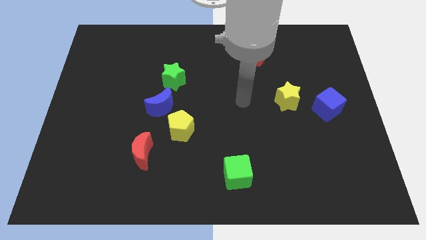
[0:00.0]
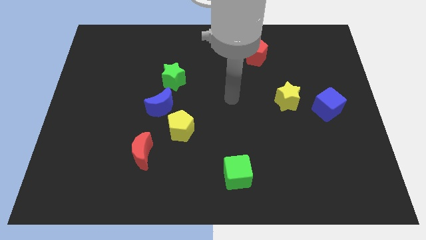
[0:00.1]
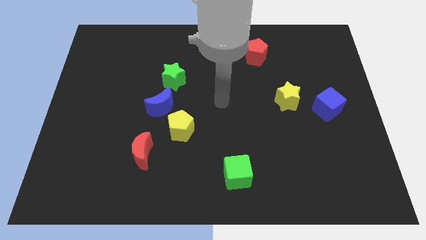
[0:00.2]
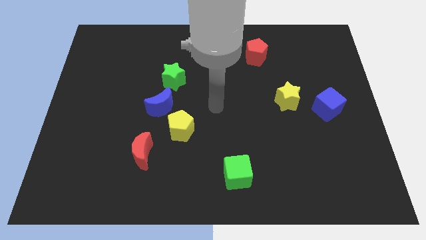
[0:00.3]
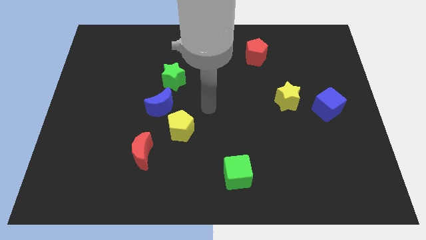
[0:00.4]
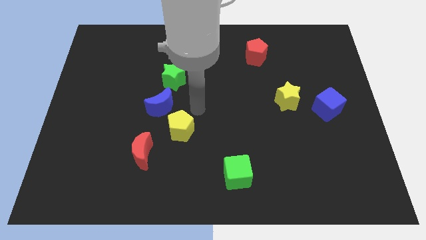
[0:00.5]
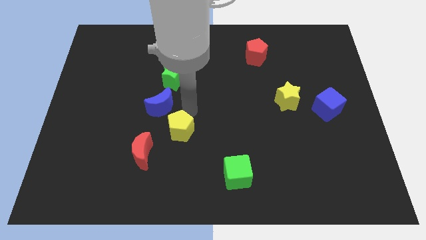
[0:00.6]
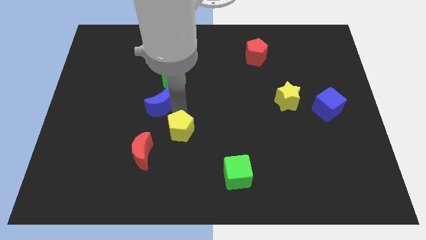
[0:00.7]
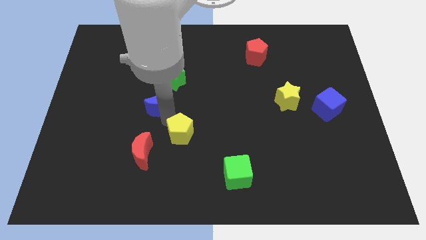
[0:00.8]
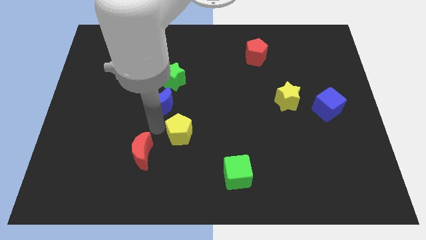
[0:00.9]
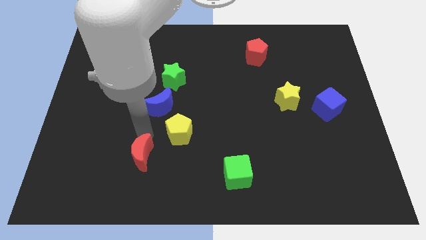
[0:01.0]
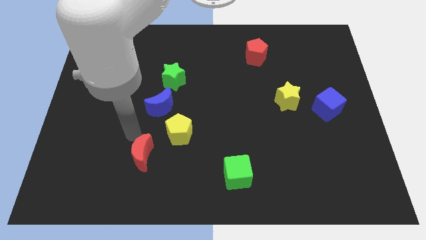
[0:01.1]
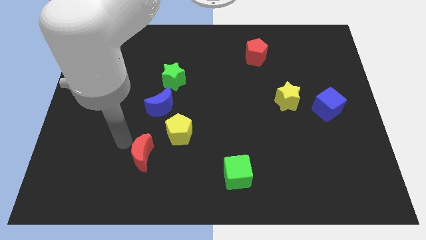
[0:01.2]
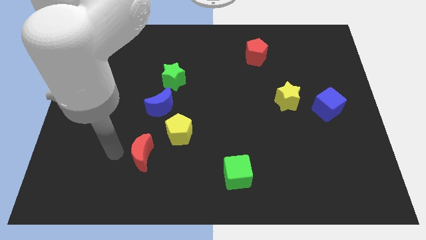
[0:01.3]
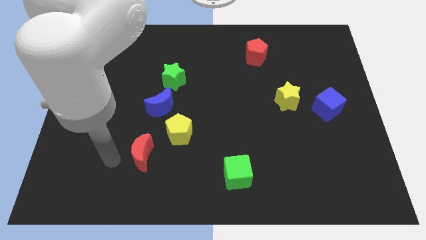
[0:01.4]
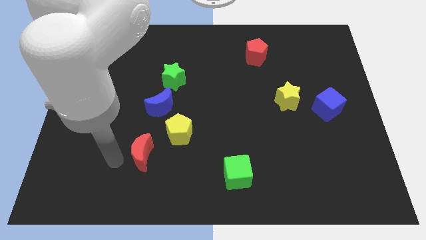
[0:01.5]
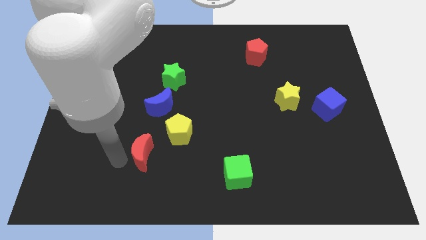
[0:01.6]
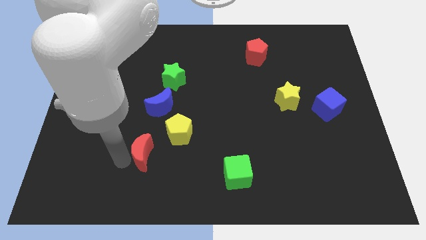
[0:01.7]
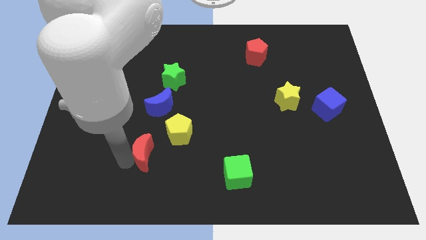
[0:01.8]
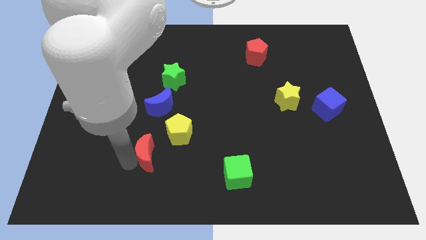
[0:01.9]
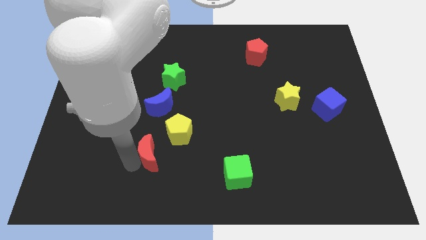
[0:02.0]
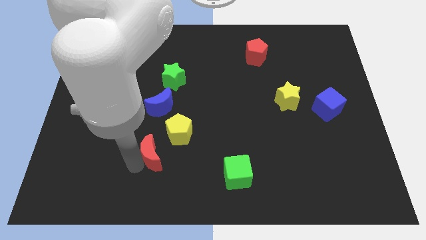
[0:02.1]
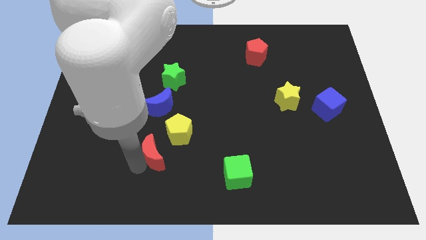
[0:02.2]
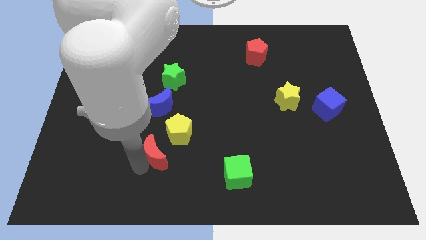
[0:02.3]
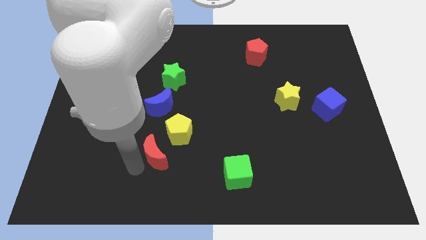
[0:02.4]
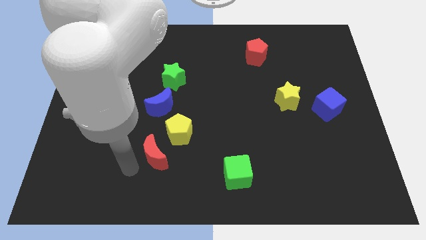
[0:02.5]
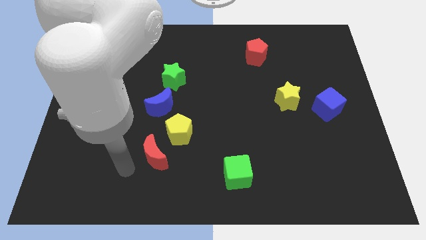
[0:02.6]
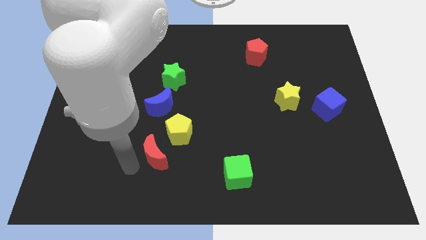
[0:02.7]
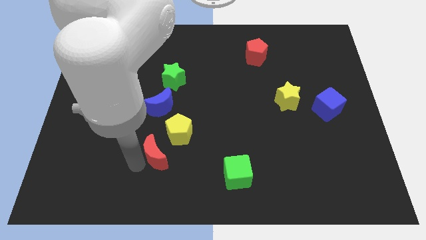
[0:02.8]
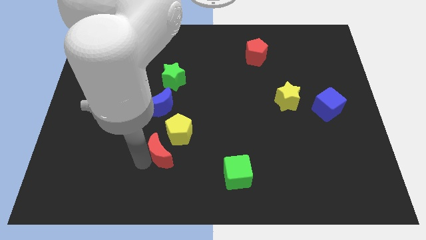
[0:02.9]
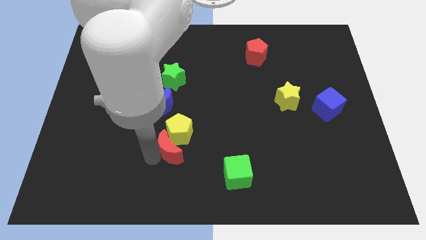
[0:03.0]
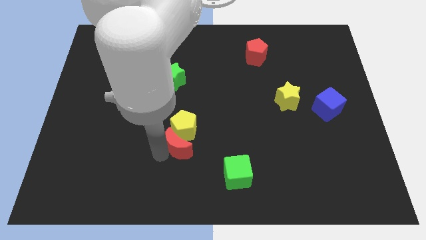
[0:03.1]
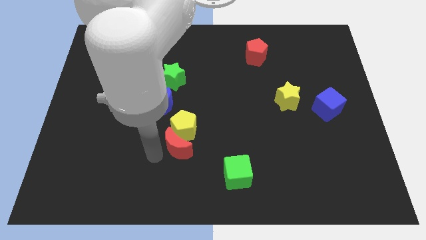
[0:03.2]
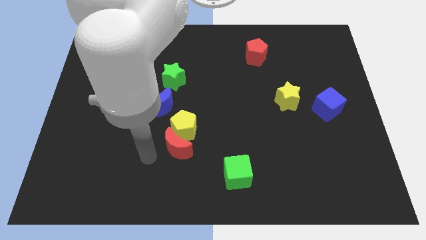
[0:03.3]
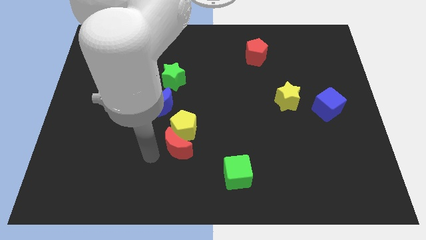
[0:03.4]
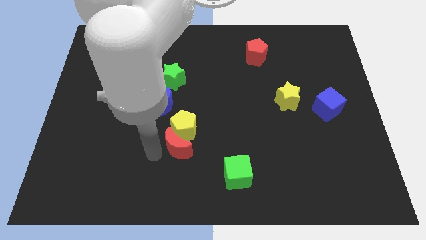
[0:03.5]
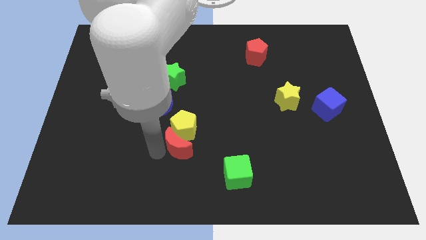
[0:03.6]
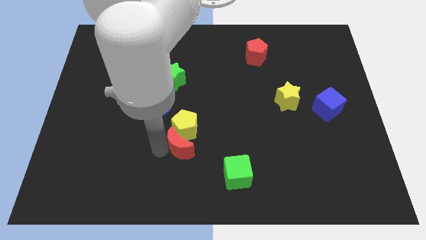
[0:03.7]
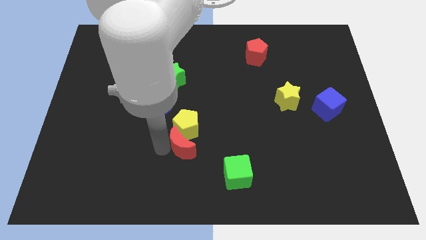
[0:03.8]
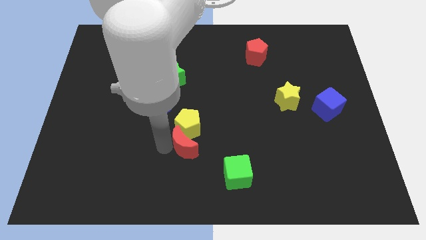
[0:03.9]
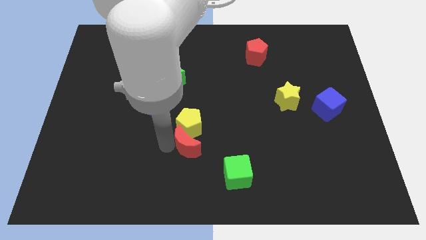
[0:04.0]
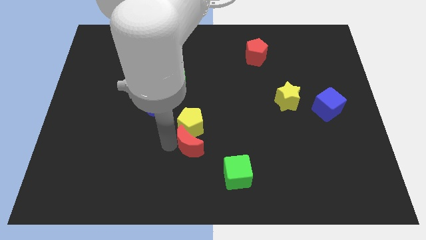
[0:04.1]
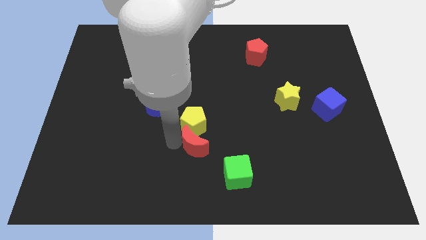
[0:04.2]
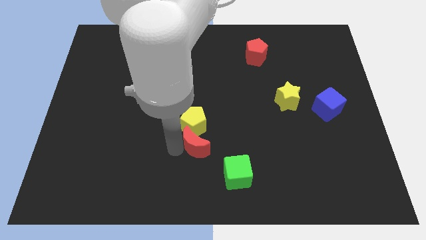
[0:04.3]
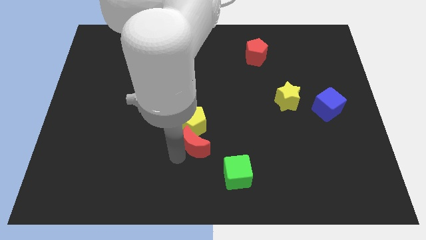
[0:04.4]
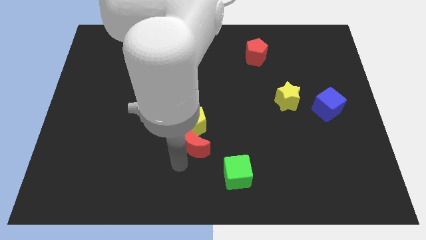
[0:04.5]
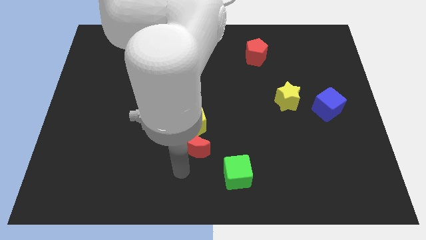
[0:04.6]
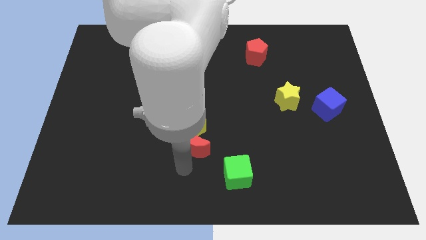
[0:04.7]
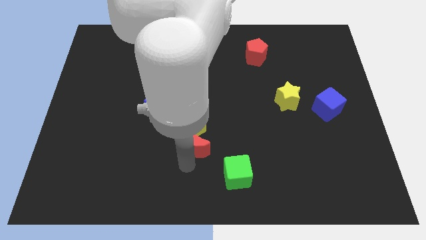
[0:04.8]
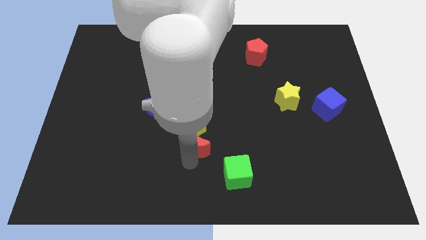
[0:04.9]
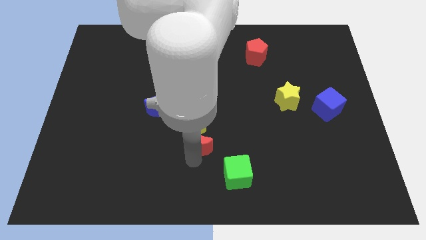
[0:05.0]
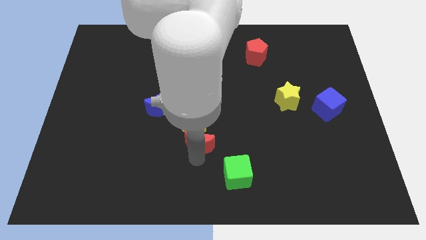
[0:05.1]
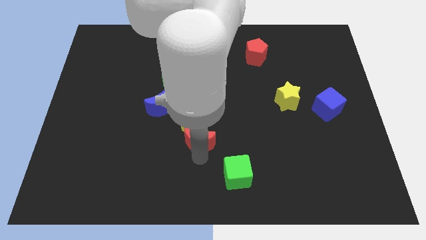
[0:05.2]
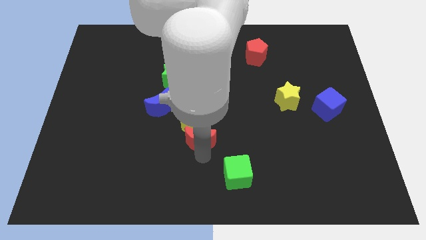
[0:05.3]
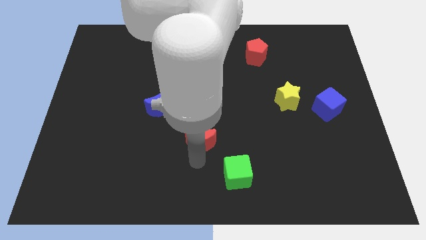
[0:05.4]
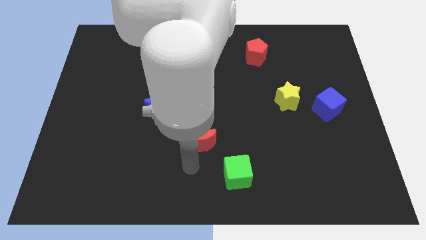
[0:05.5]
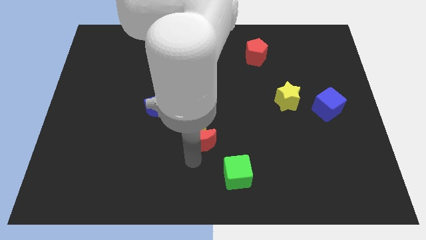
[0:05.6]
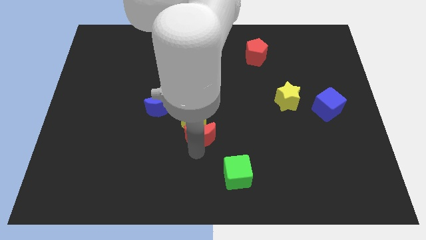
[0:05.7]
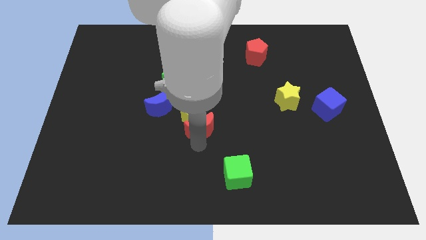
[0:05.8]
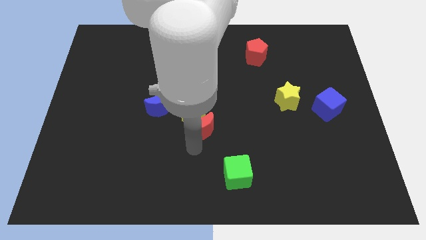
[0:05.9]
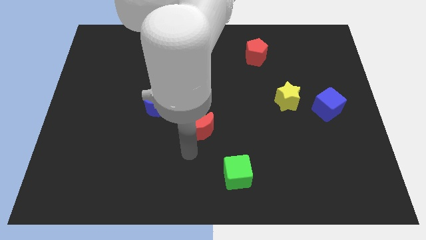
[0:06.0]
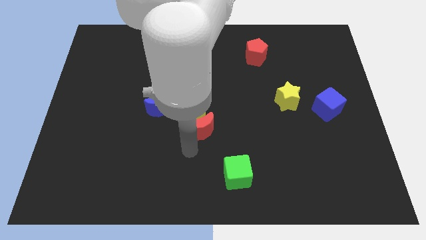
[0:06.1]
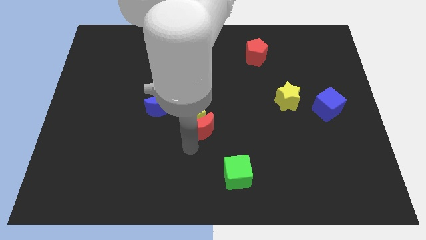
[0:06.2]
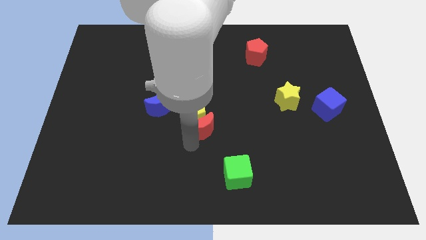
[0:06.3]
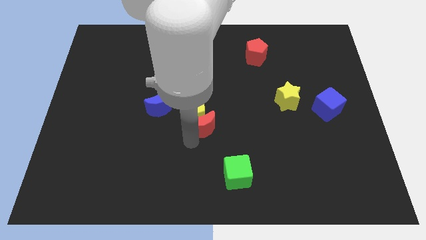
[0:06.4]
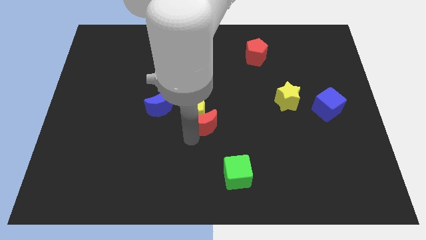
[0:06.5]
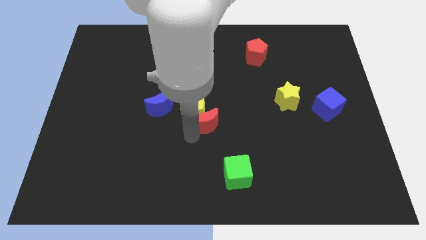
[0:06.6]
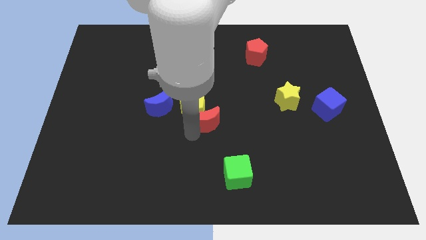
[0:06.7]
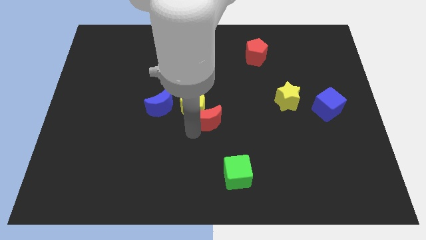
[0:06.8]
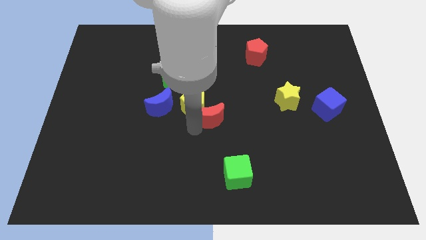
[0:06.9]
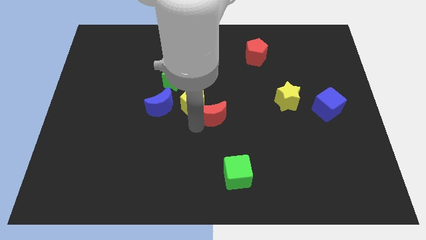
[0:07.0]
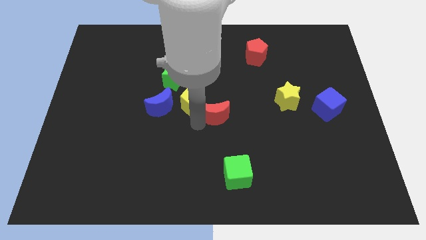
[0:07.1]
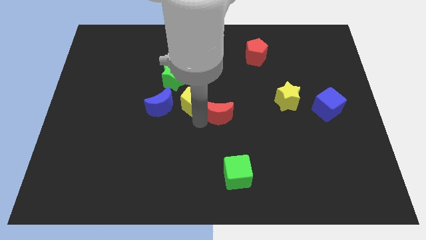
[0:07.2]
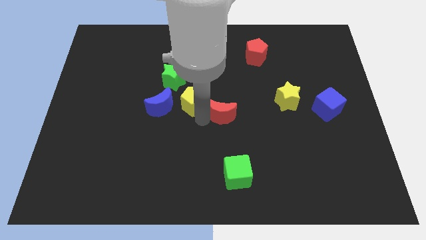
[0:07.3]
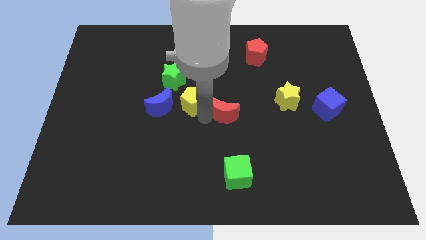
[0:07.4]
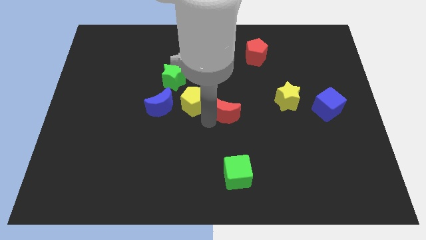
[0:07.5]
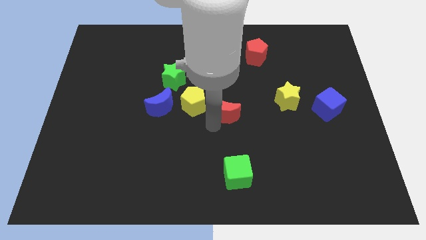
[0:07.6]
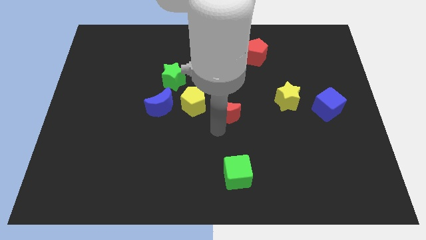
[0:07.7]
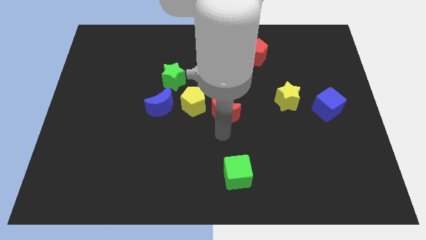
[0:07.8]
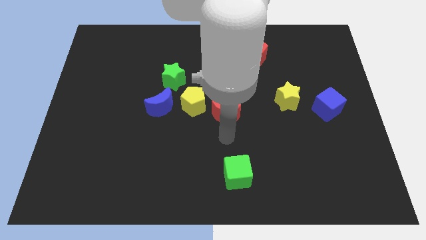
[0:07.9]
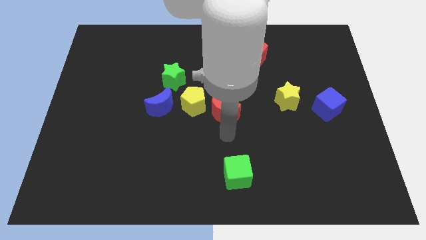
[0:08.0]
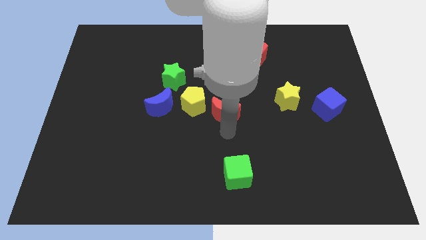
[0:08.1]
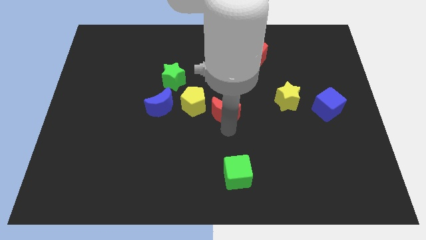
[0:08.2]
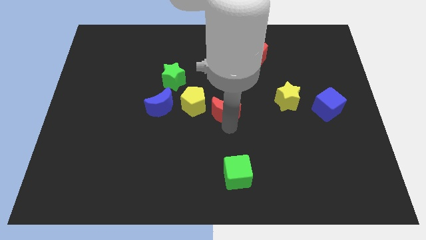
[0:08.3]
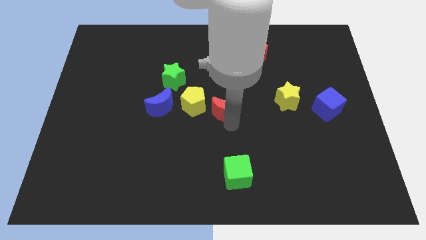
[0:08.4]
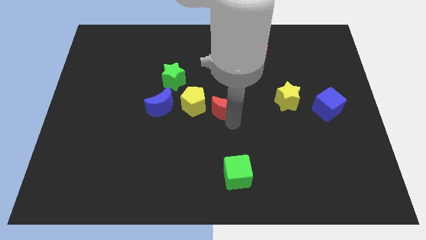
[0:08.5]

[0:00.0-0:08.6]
push the red moon upwards and then to the right
